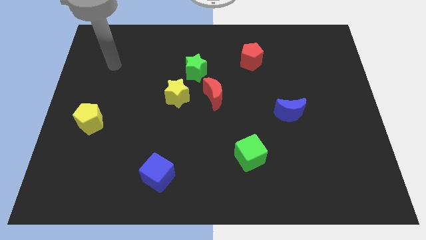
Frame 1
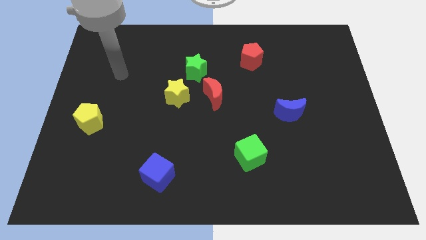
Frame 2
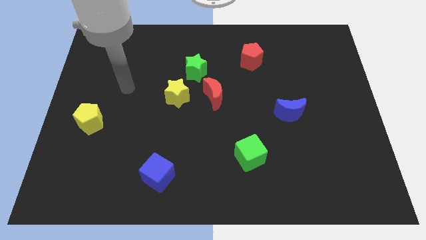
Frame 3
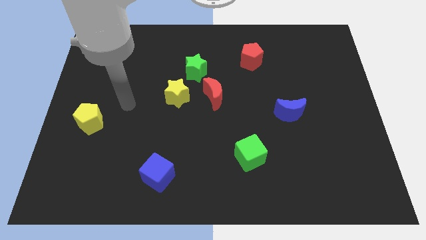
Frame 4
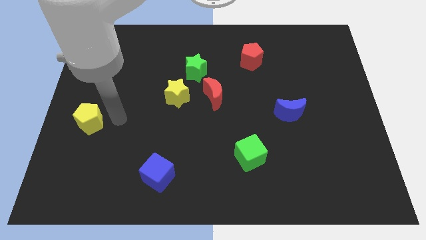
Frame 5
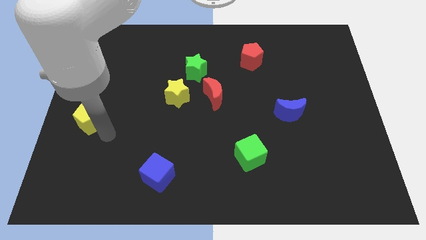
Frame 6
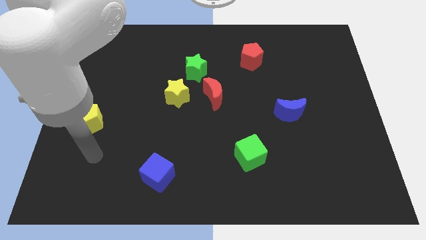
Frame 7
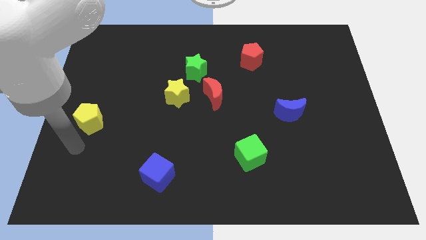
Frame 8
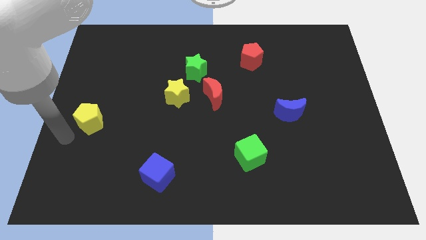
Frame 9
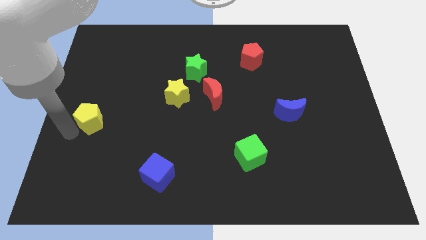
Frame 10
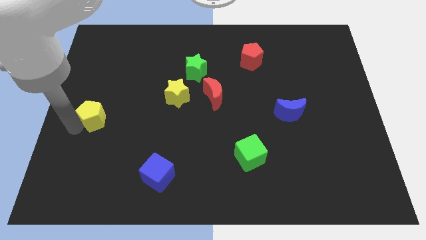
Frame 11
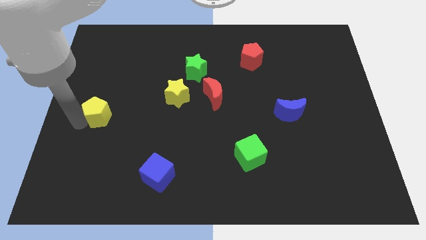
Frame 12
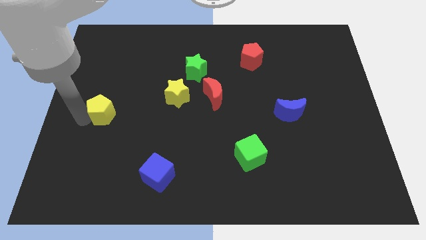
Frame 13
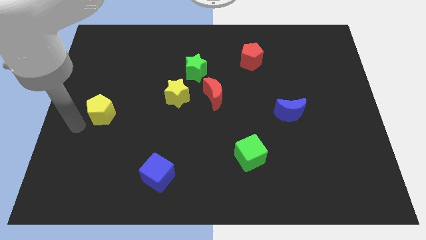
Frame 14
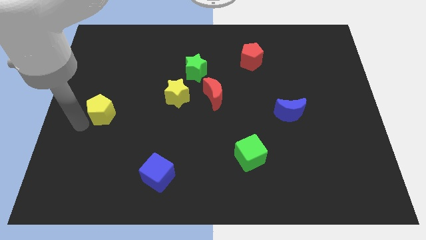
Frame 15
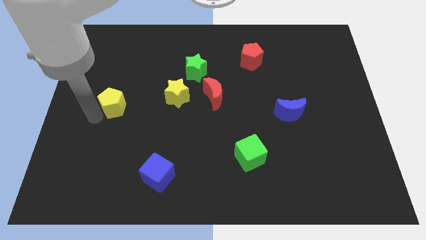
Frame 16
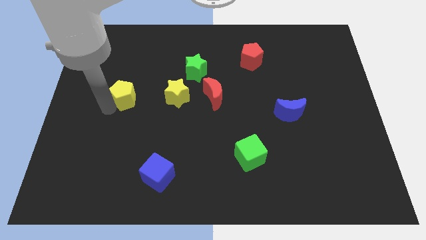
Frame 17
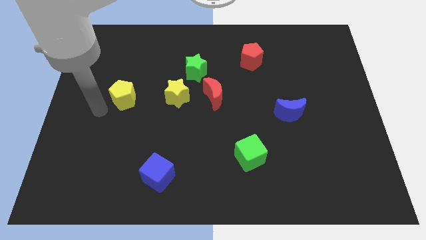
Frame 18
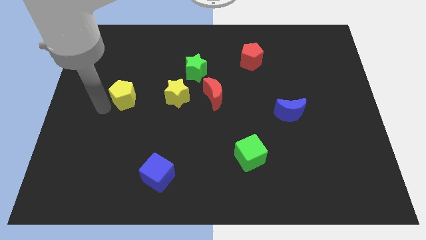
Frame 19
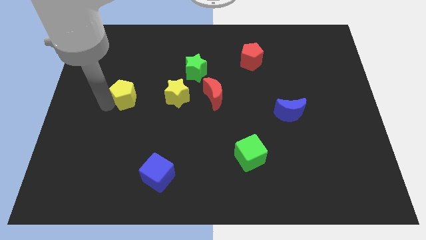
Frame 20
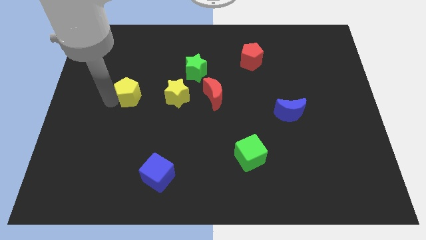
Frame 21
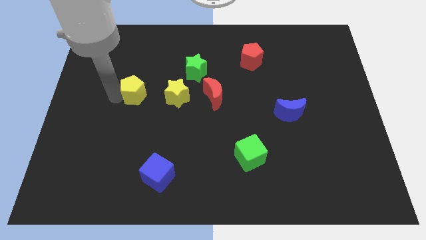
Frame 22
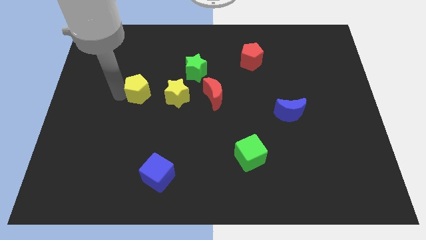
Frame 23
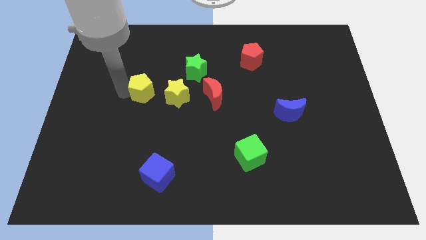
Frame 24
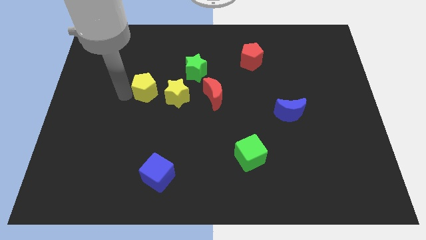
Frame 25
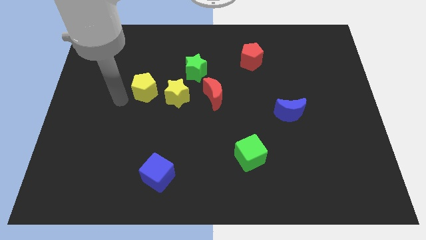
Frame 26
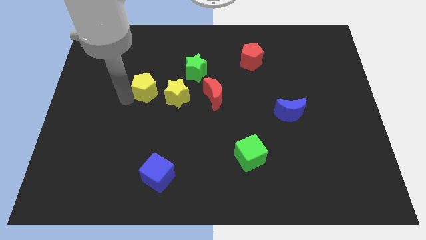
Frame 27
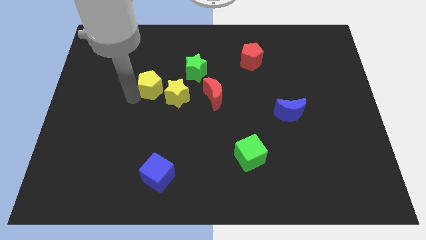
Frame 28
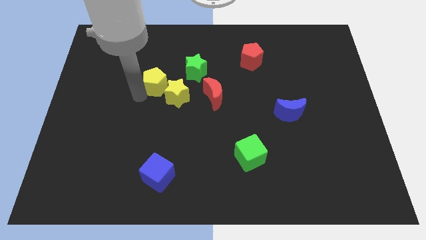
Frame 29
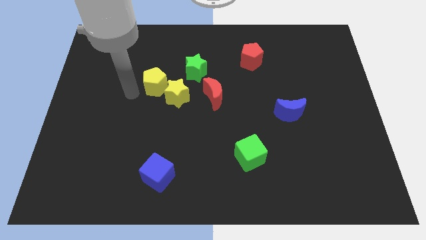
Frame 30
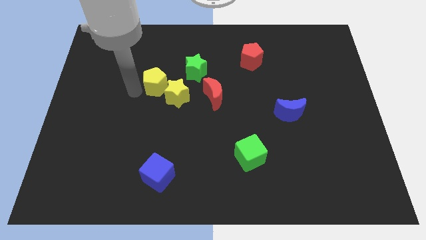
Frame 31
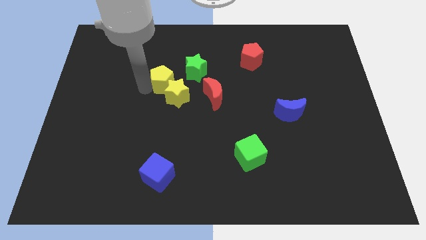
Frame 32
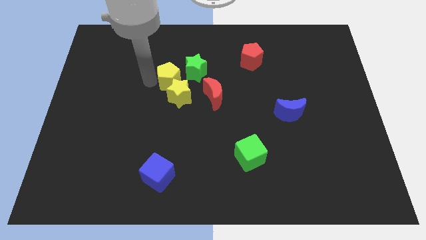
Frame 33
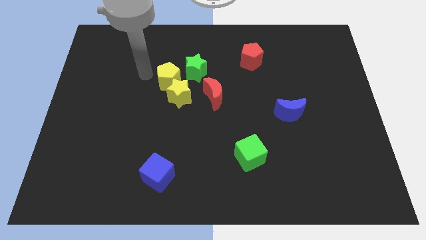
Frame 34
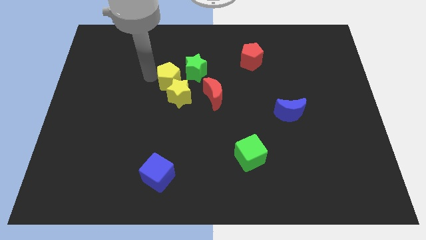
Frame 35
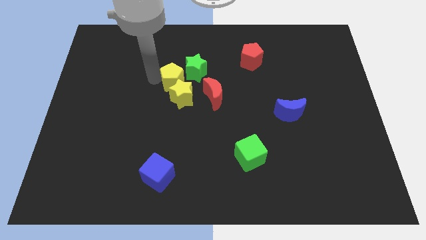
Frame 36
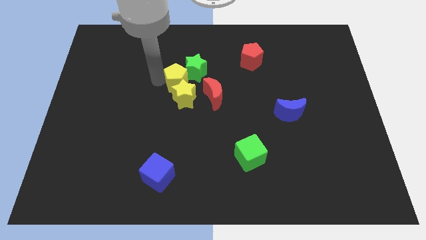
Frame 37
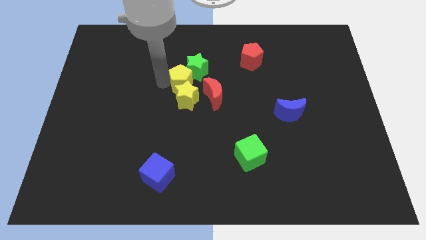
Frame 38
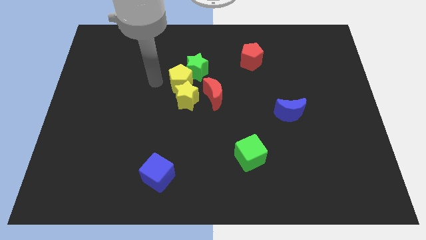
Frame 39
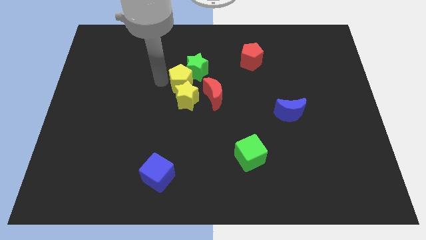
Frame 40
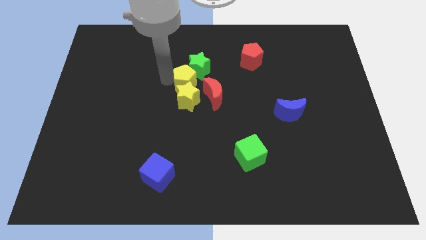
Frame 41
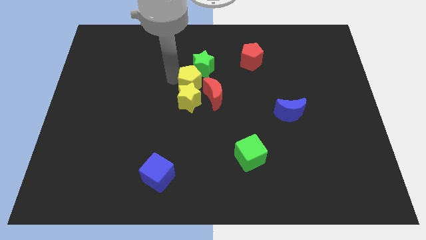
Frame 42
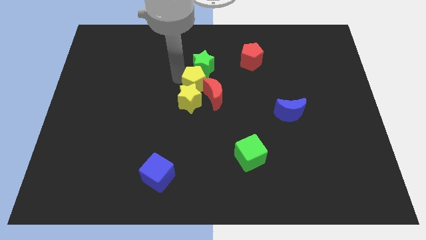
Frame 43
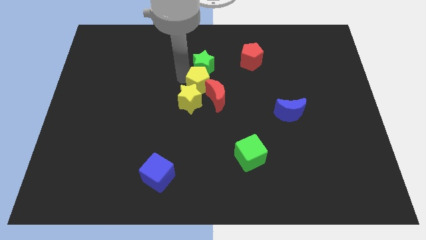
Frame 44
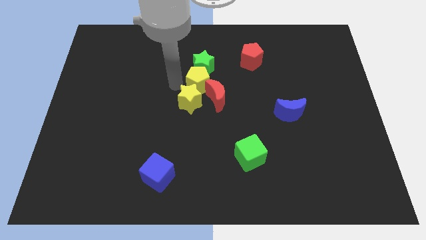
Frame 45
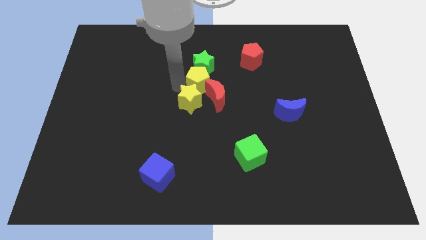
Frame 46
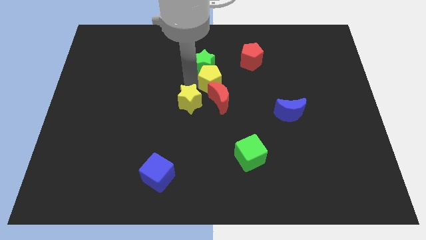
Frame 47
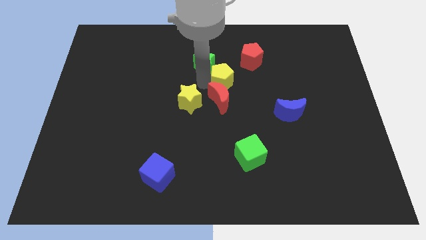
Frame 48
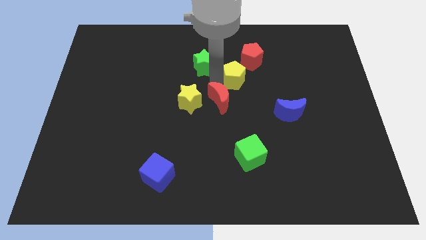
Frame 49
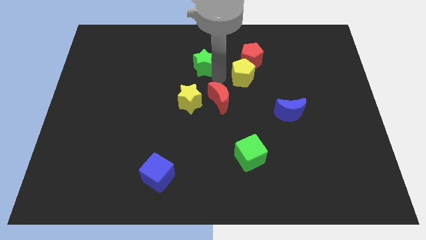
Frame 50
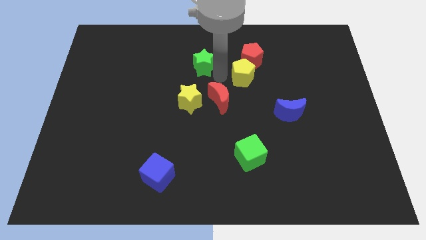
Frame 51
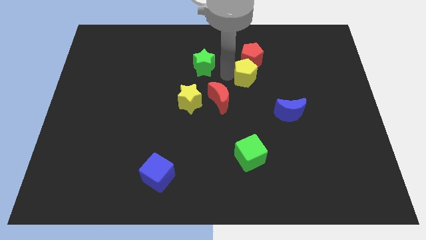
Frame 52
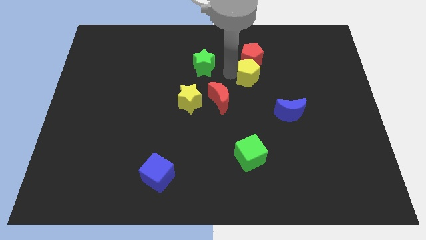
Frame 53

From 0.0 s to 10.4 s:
move the yellow pentagon to the bottom right side of the red pentagon

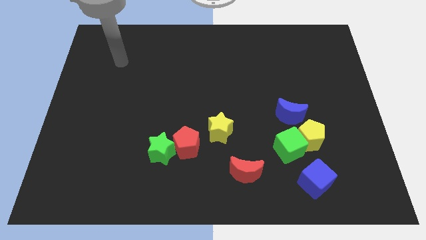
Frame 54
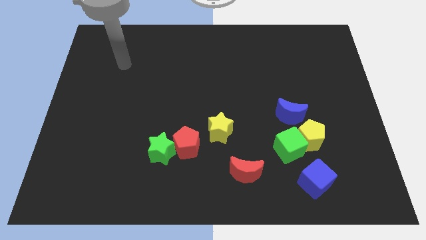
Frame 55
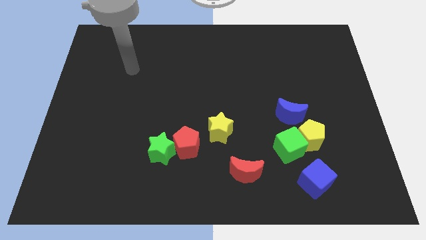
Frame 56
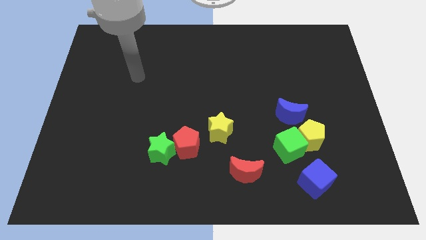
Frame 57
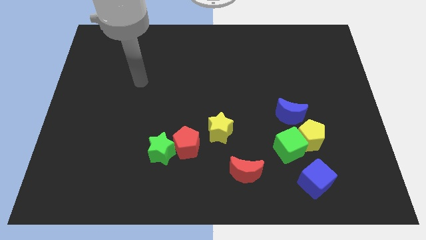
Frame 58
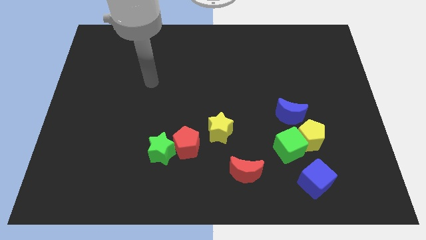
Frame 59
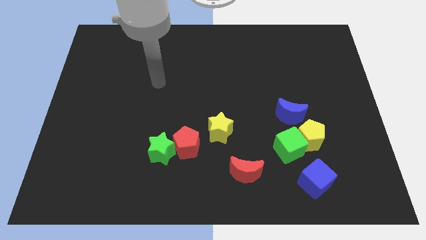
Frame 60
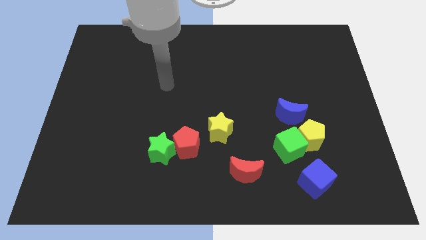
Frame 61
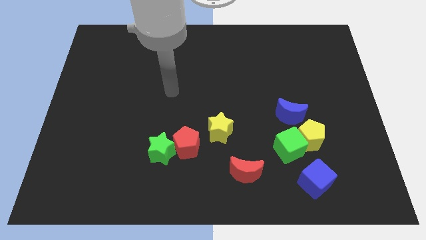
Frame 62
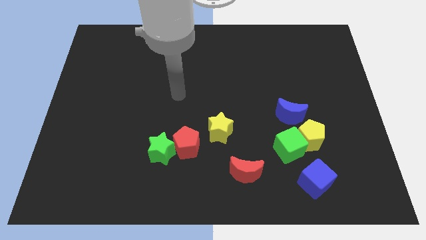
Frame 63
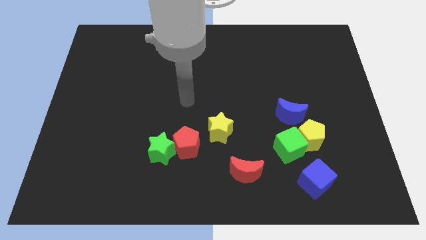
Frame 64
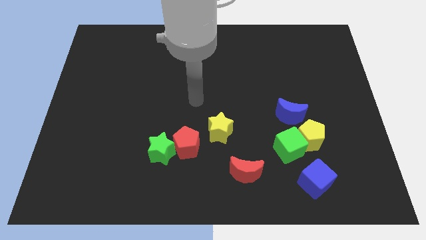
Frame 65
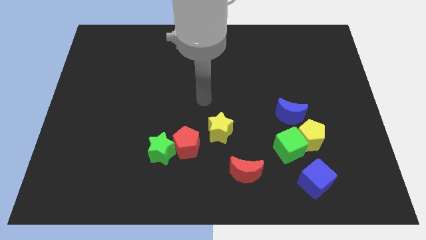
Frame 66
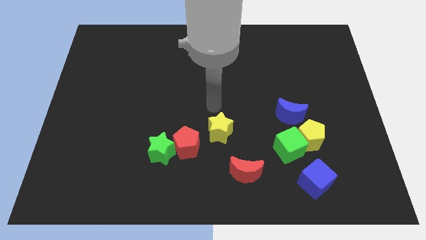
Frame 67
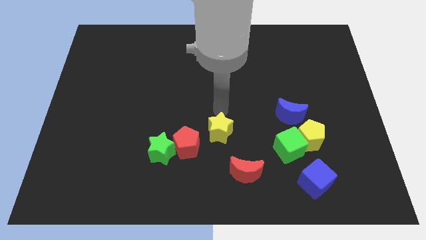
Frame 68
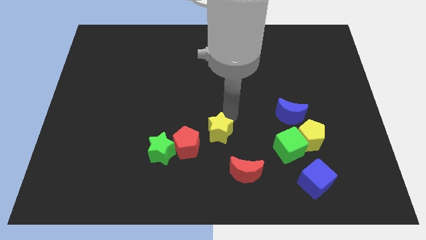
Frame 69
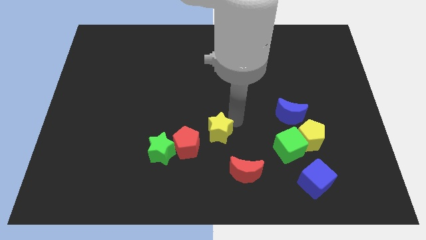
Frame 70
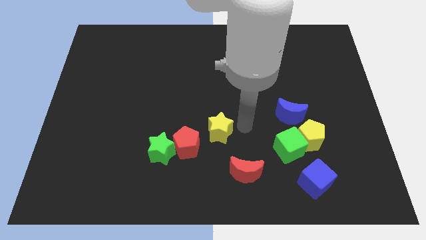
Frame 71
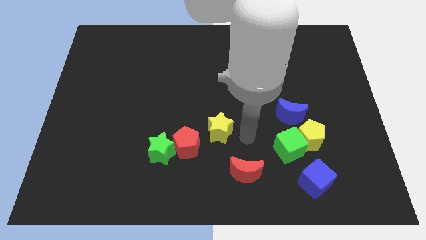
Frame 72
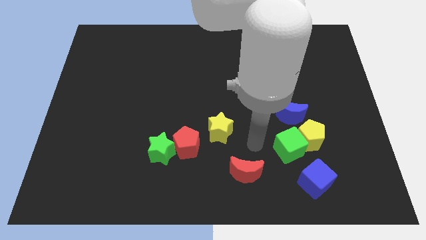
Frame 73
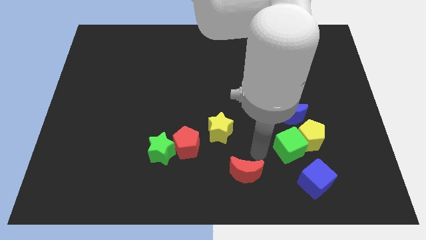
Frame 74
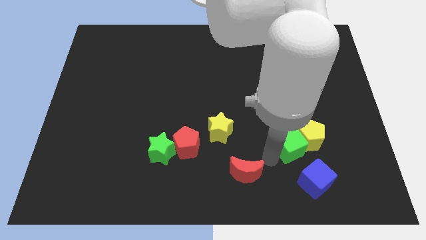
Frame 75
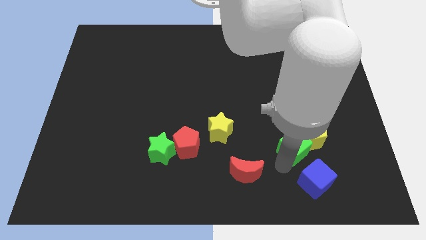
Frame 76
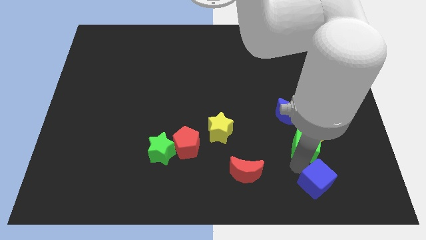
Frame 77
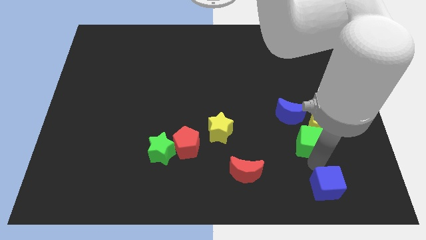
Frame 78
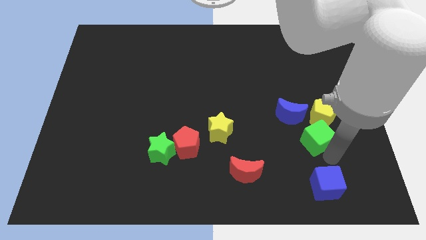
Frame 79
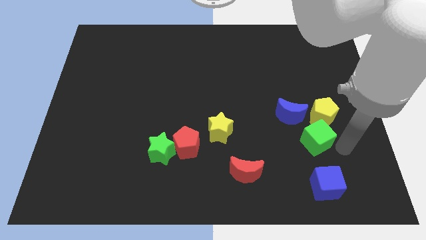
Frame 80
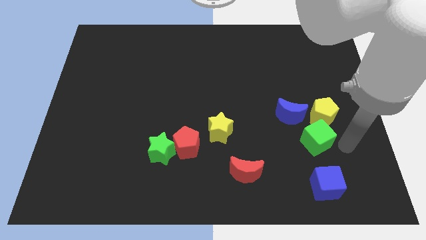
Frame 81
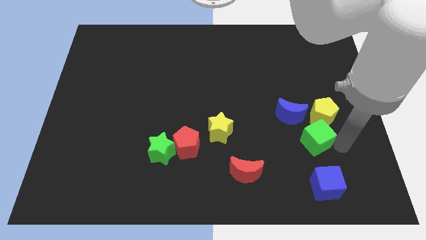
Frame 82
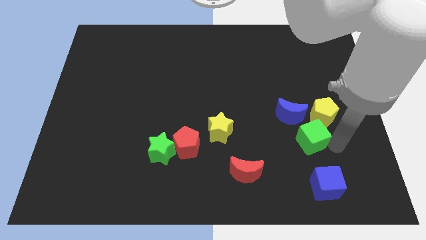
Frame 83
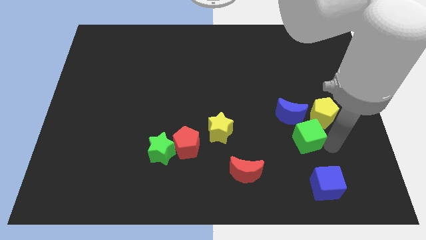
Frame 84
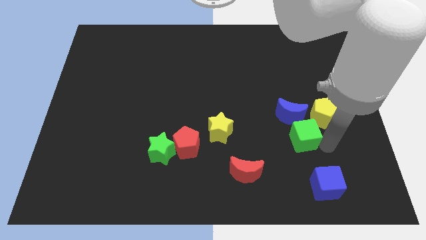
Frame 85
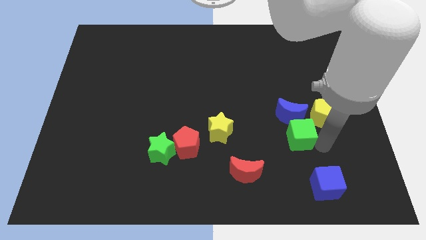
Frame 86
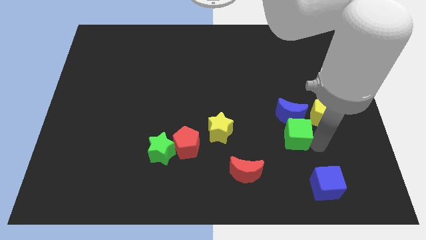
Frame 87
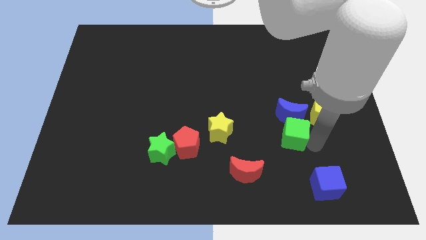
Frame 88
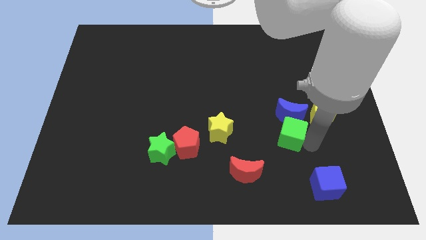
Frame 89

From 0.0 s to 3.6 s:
push the green cube just right of the yellow star
